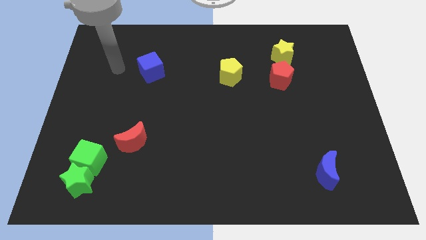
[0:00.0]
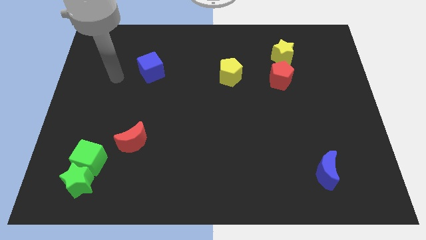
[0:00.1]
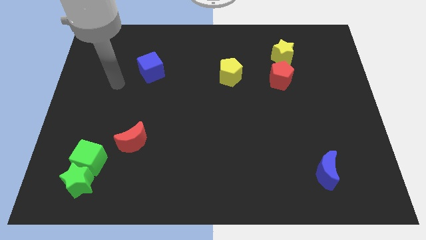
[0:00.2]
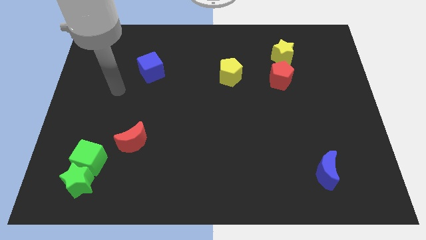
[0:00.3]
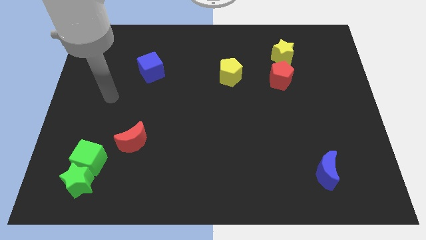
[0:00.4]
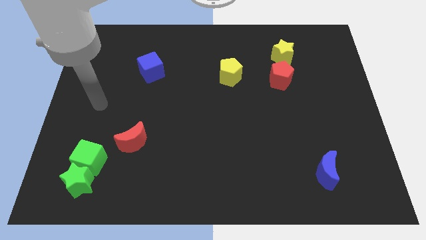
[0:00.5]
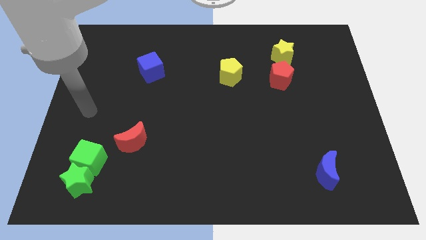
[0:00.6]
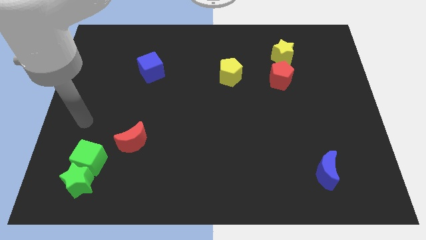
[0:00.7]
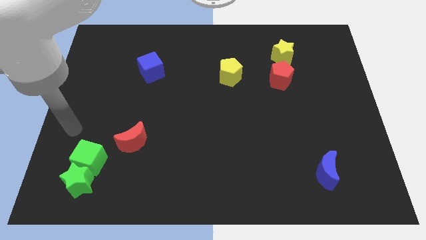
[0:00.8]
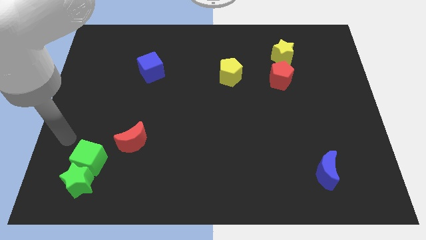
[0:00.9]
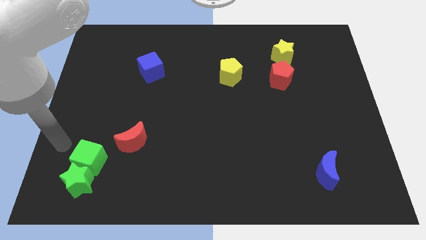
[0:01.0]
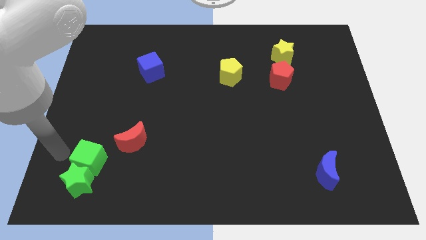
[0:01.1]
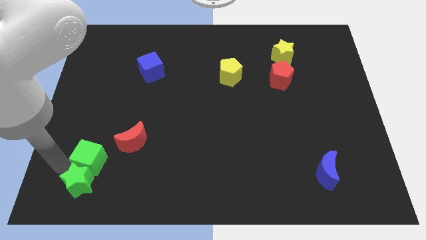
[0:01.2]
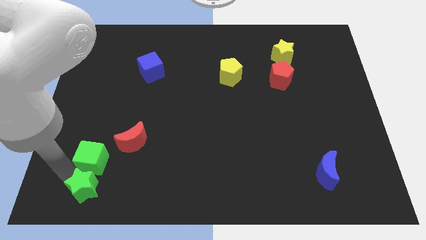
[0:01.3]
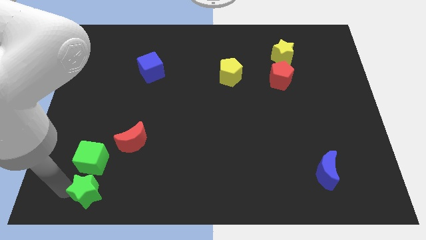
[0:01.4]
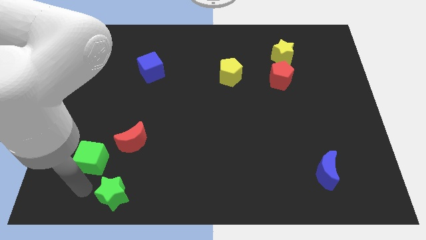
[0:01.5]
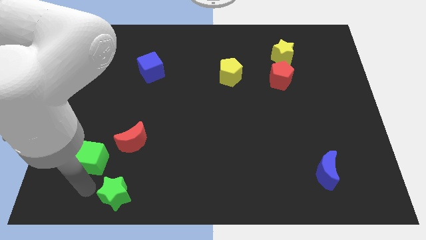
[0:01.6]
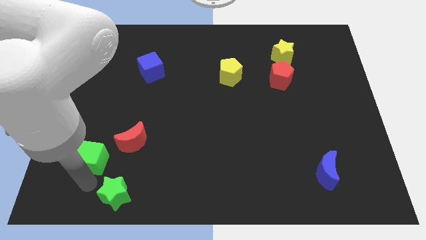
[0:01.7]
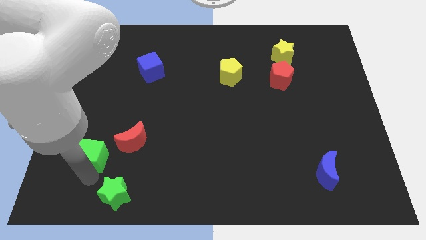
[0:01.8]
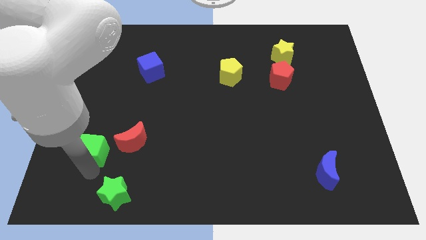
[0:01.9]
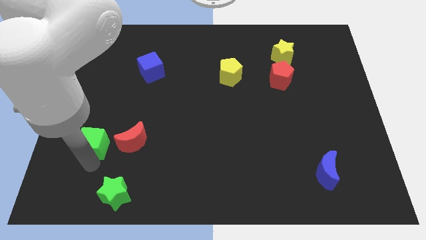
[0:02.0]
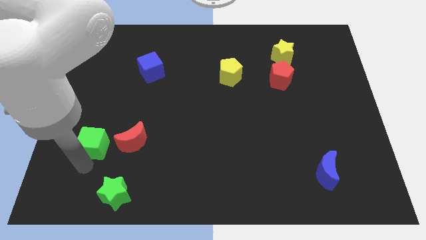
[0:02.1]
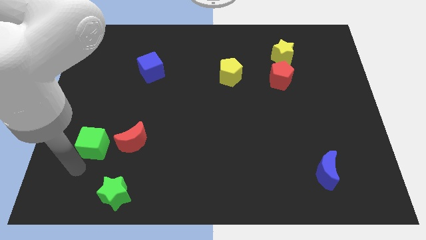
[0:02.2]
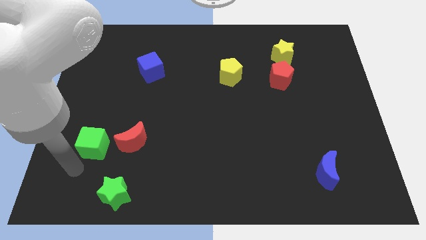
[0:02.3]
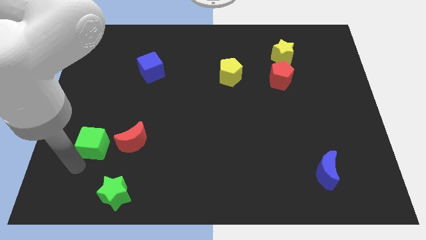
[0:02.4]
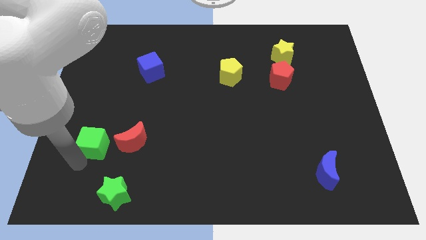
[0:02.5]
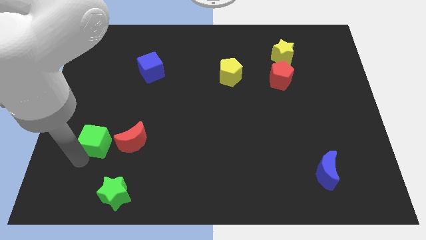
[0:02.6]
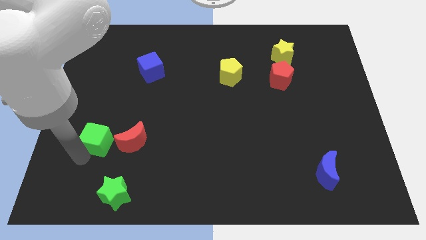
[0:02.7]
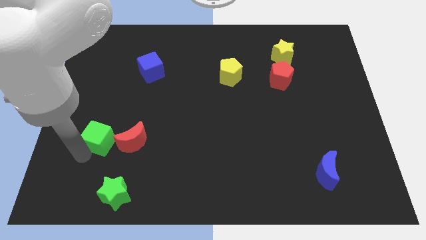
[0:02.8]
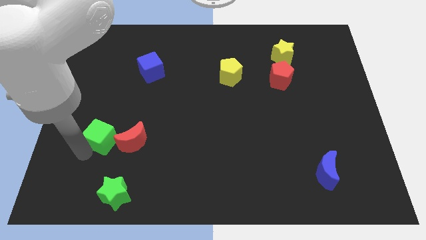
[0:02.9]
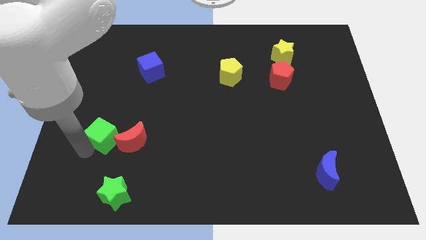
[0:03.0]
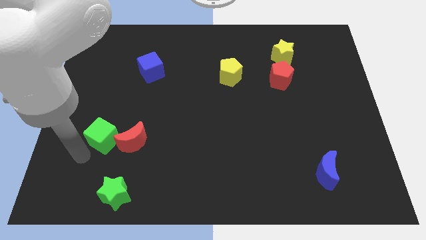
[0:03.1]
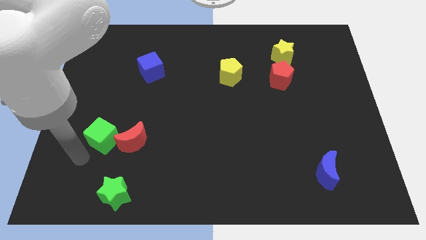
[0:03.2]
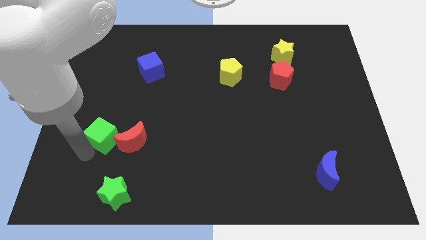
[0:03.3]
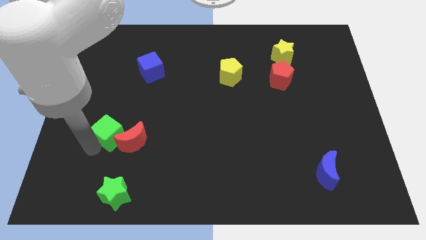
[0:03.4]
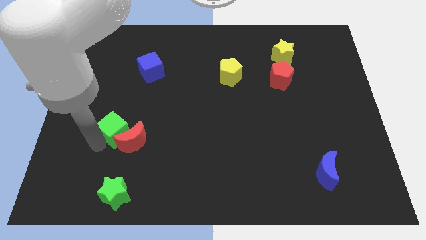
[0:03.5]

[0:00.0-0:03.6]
move the green cube slightly up and right

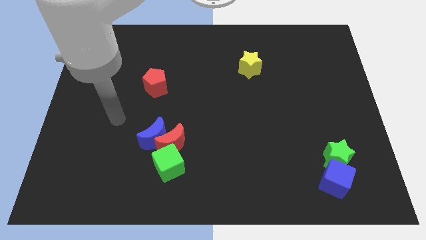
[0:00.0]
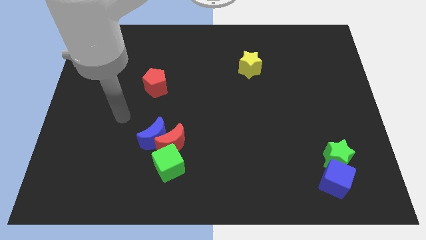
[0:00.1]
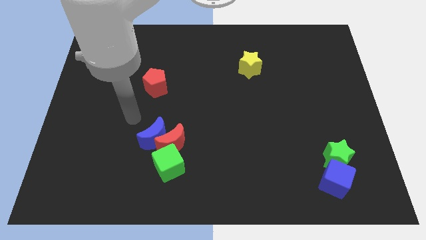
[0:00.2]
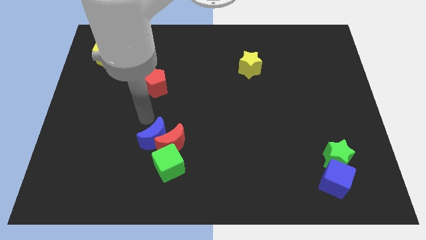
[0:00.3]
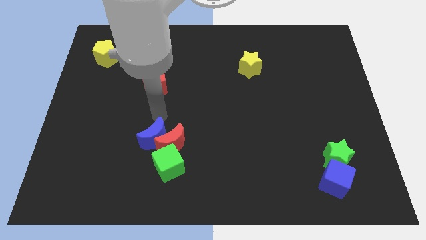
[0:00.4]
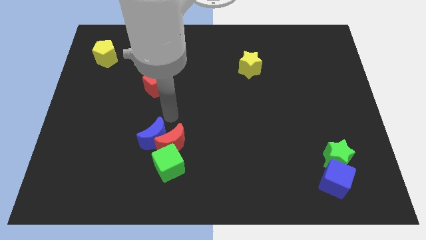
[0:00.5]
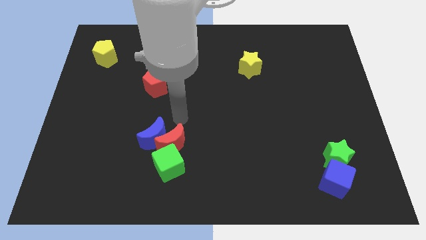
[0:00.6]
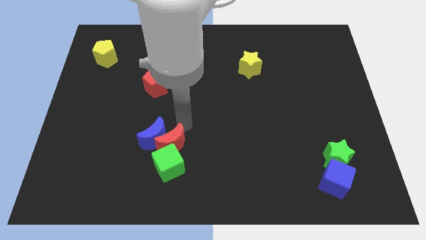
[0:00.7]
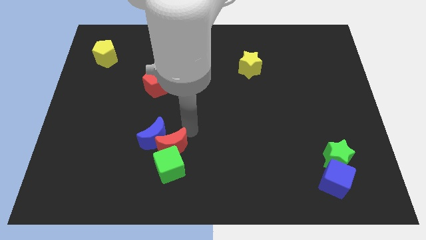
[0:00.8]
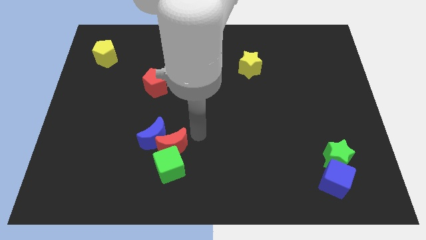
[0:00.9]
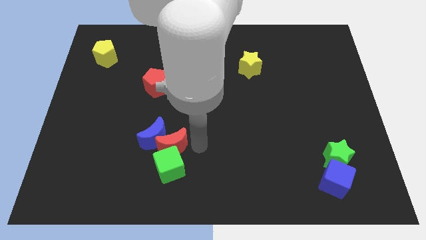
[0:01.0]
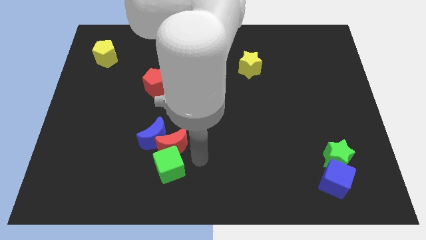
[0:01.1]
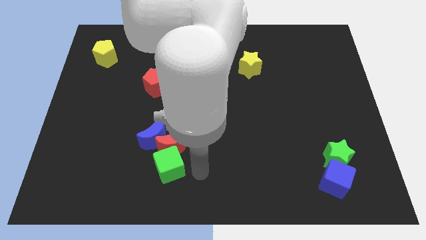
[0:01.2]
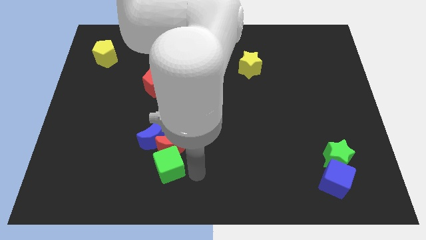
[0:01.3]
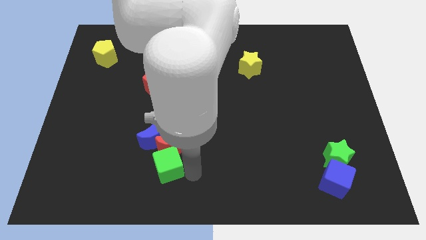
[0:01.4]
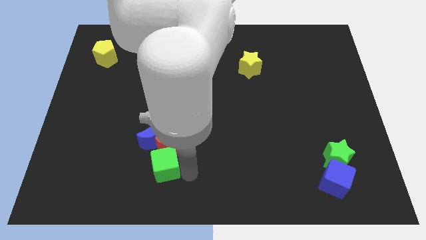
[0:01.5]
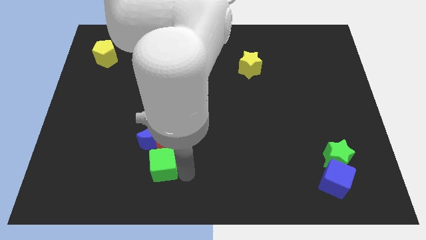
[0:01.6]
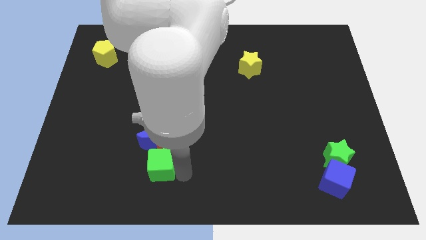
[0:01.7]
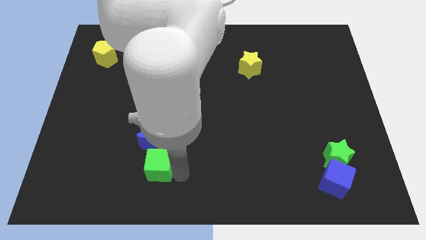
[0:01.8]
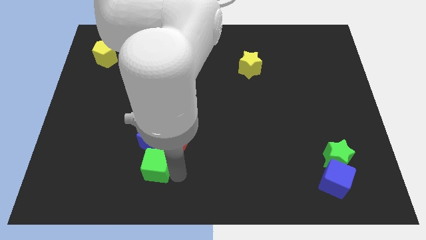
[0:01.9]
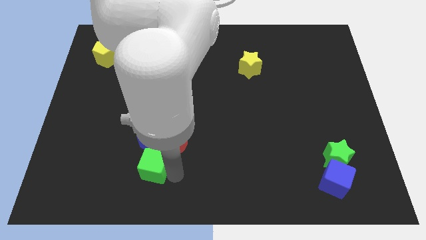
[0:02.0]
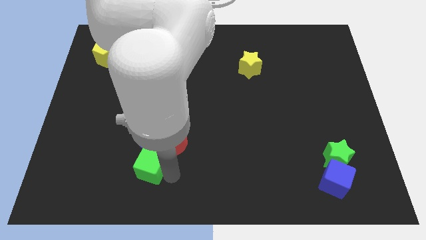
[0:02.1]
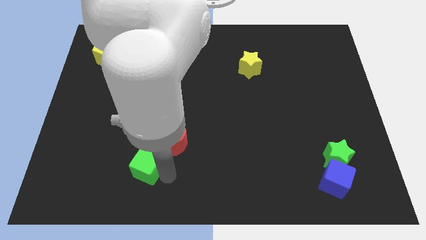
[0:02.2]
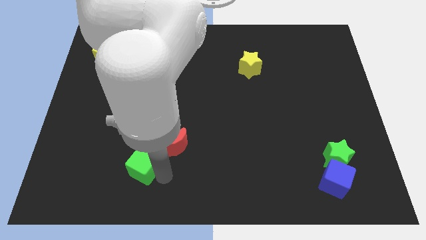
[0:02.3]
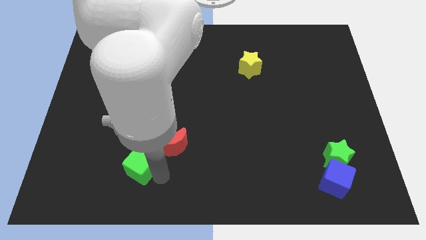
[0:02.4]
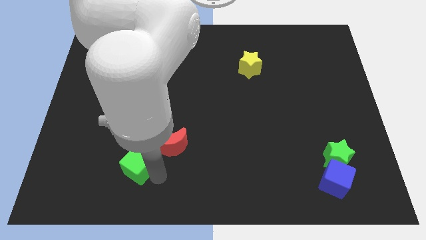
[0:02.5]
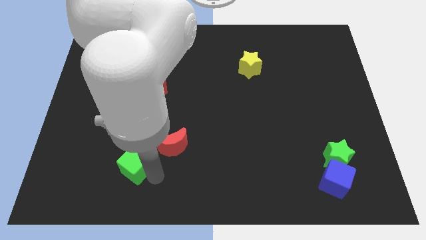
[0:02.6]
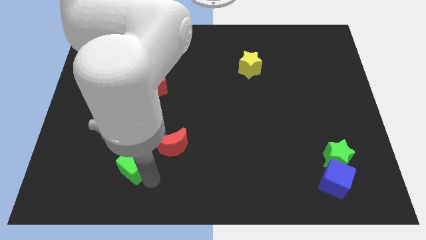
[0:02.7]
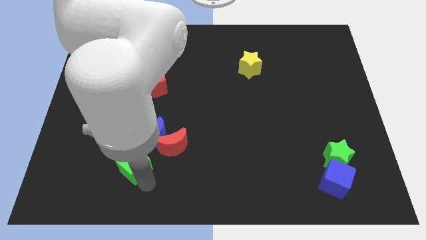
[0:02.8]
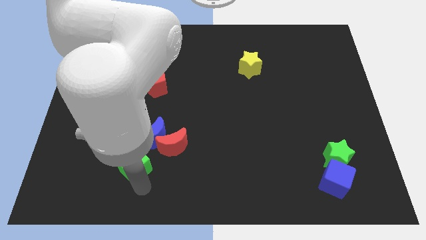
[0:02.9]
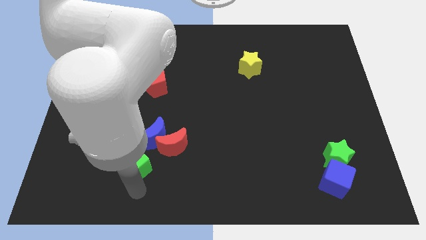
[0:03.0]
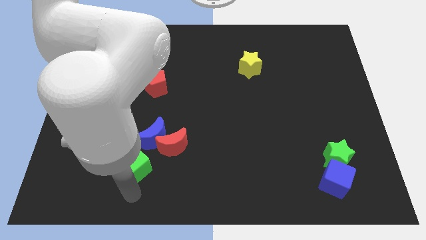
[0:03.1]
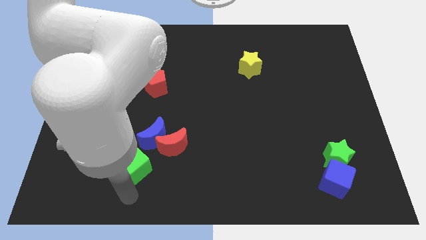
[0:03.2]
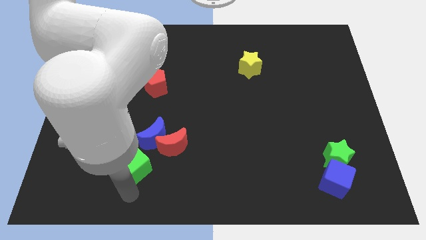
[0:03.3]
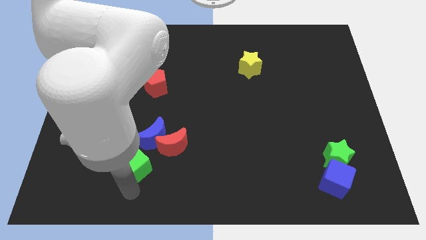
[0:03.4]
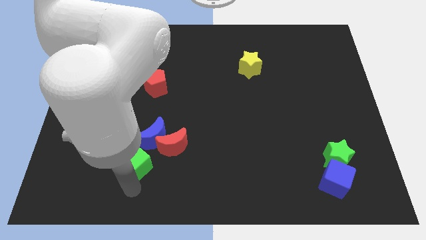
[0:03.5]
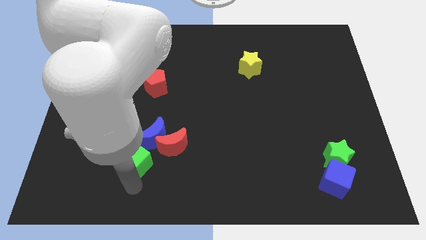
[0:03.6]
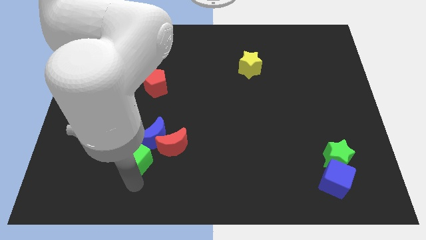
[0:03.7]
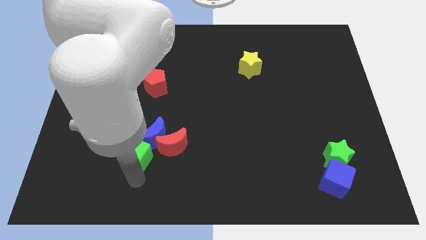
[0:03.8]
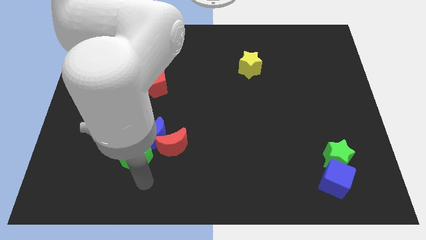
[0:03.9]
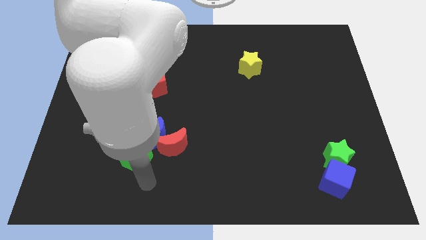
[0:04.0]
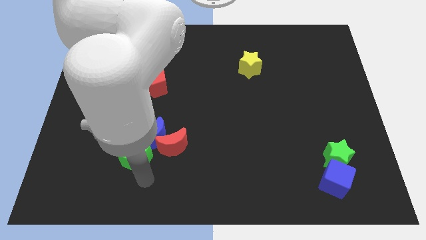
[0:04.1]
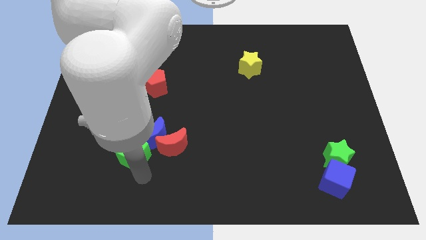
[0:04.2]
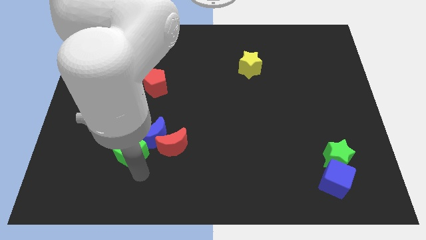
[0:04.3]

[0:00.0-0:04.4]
move the green cube up and left diagonally a bit

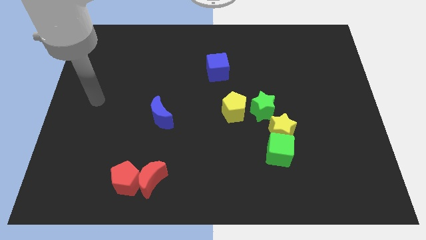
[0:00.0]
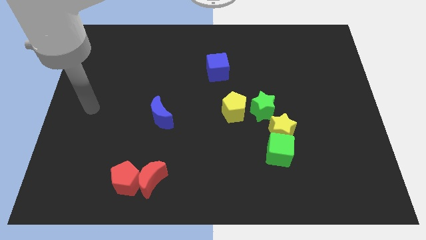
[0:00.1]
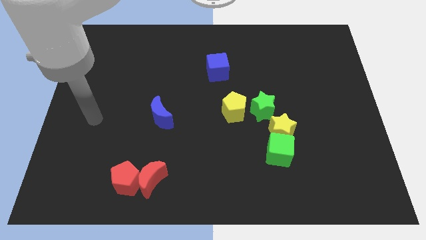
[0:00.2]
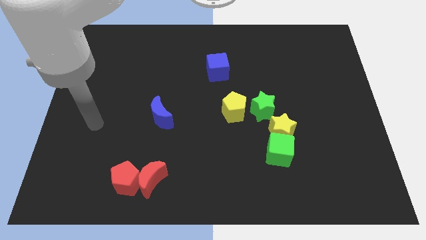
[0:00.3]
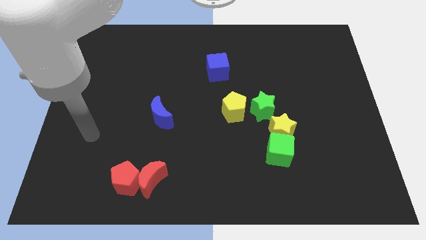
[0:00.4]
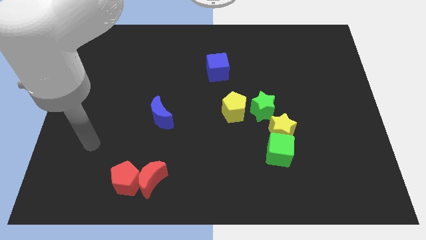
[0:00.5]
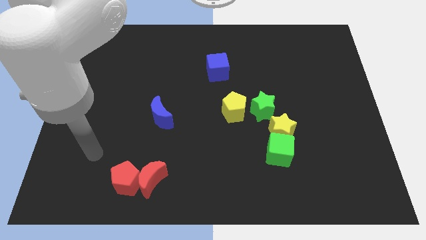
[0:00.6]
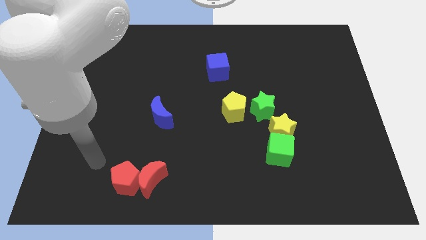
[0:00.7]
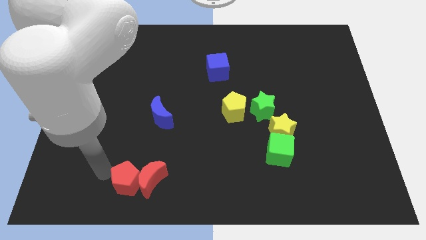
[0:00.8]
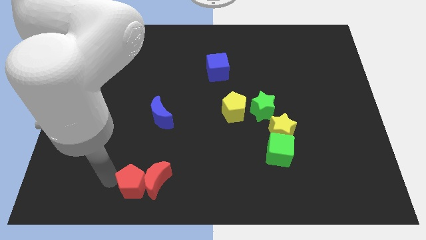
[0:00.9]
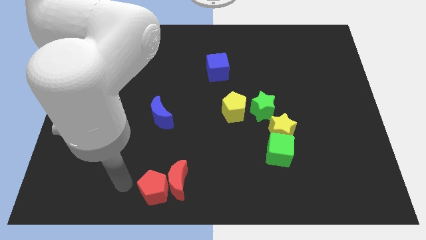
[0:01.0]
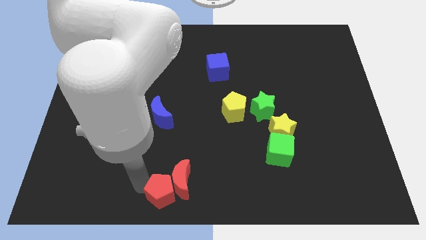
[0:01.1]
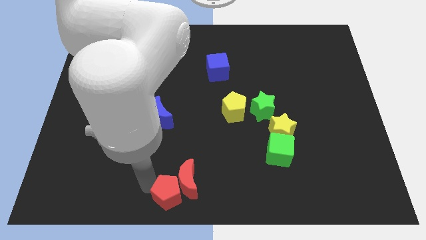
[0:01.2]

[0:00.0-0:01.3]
slightly move the red moon to the right
